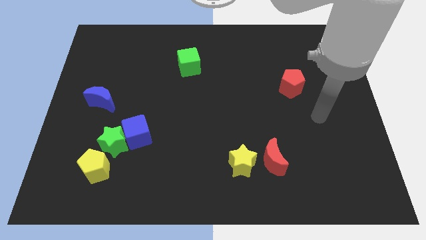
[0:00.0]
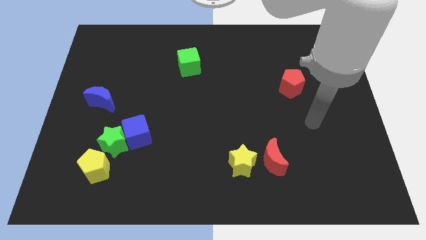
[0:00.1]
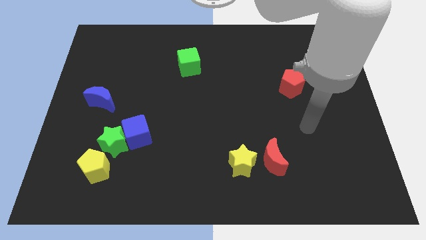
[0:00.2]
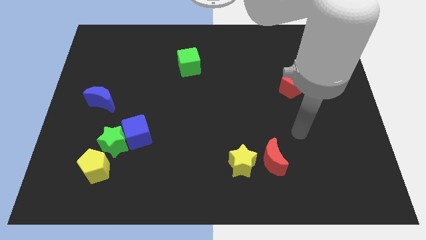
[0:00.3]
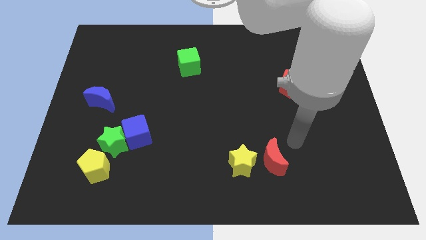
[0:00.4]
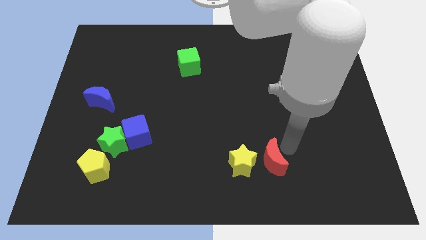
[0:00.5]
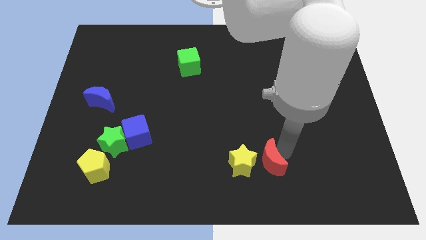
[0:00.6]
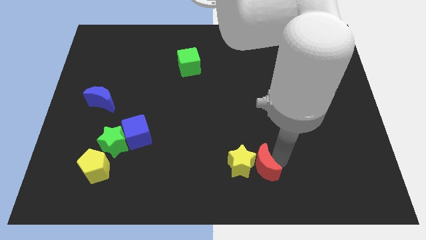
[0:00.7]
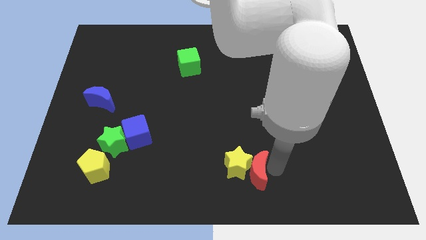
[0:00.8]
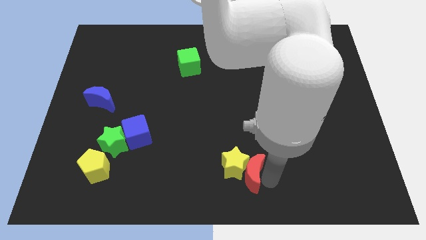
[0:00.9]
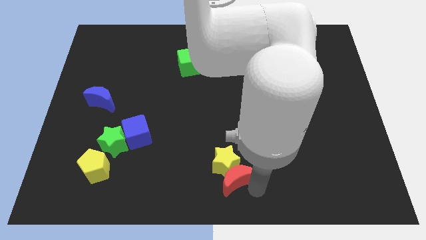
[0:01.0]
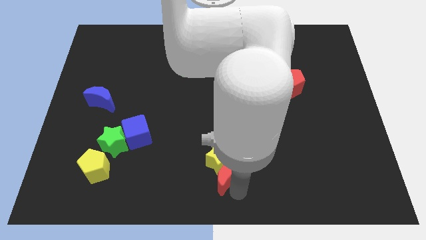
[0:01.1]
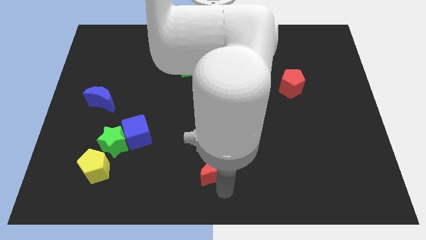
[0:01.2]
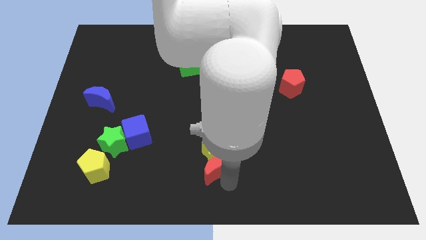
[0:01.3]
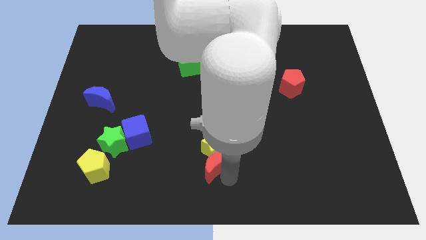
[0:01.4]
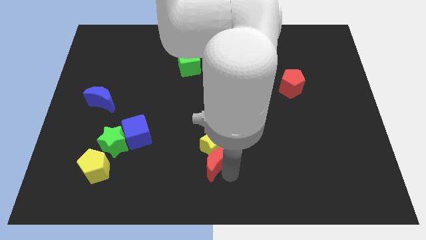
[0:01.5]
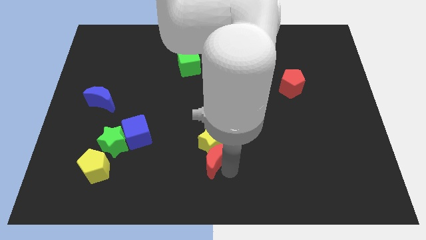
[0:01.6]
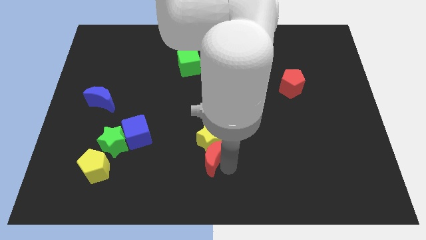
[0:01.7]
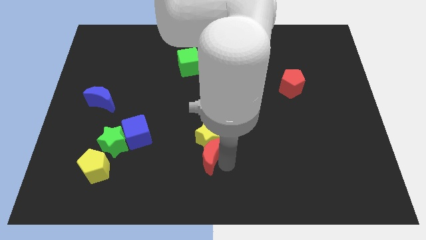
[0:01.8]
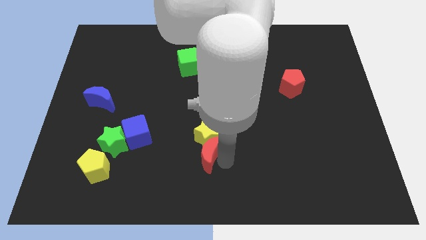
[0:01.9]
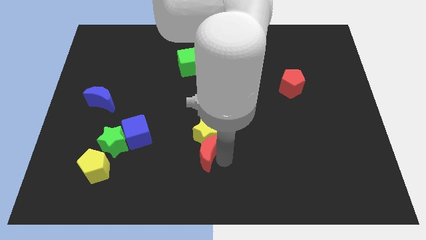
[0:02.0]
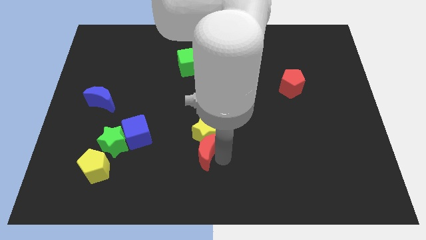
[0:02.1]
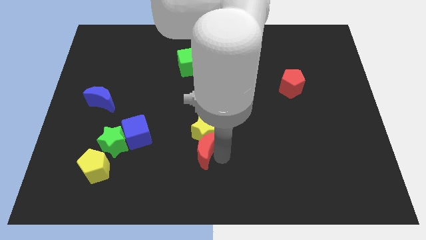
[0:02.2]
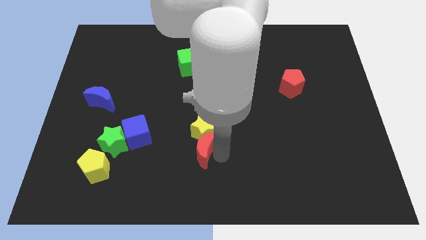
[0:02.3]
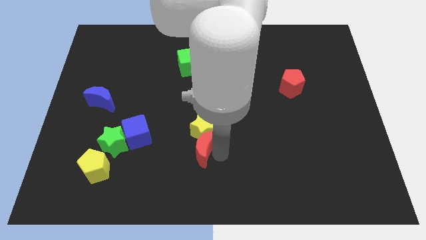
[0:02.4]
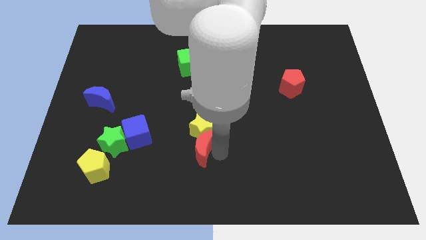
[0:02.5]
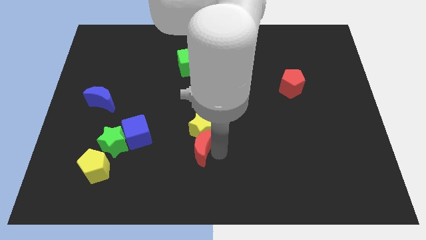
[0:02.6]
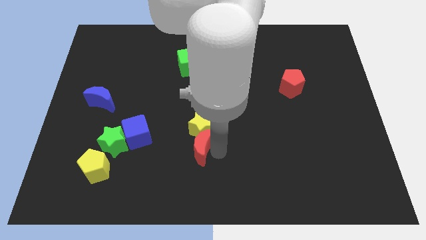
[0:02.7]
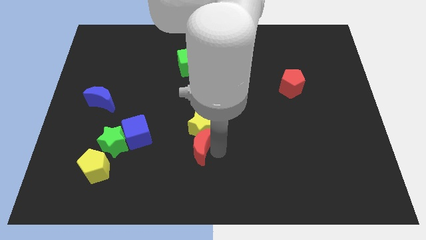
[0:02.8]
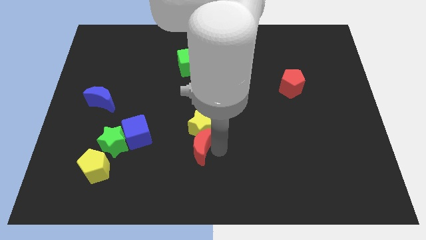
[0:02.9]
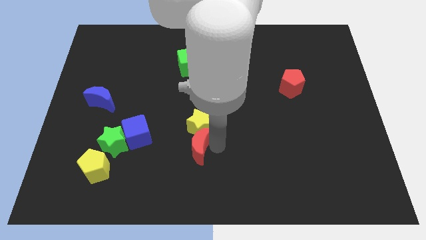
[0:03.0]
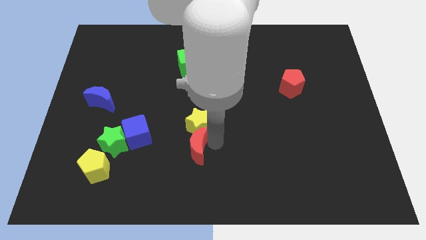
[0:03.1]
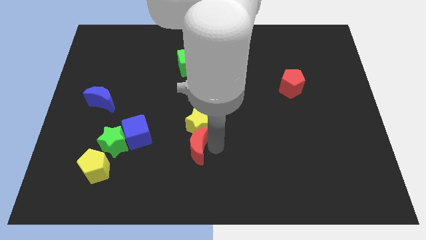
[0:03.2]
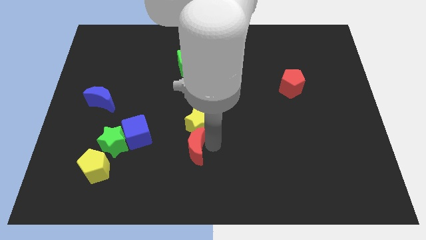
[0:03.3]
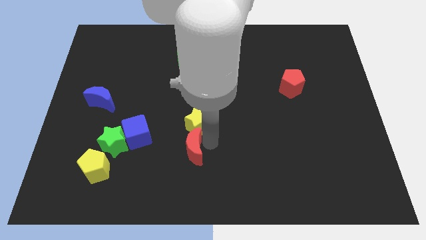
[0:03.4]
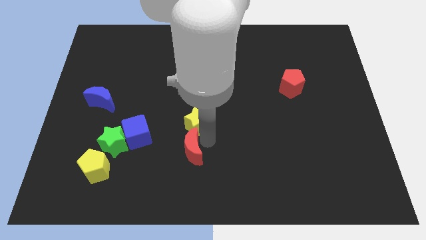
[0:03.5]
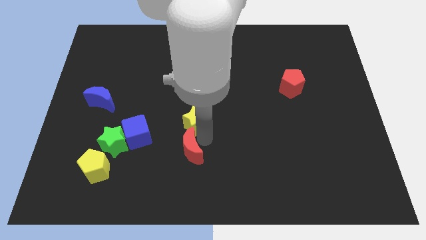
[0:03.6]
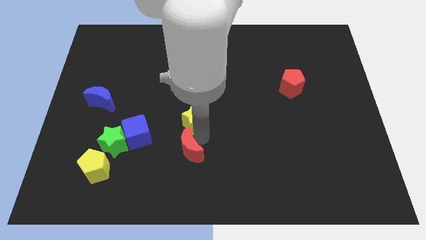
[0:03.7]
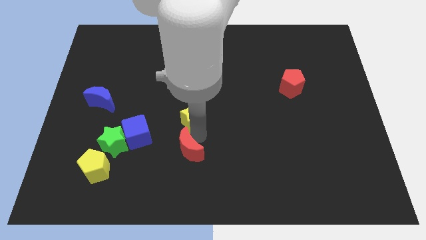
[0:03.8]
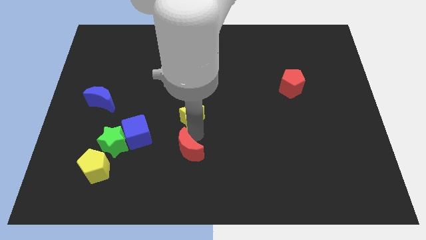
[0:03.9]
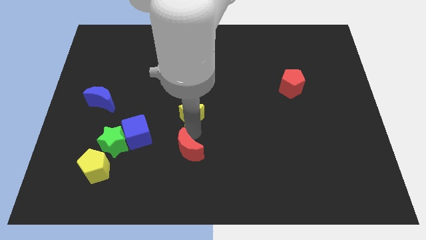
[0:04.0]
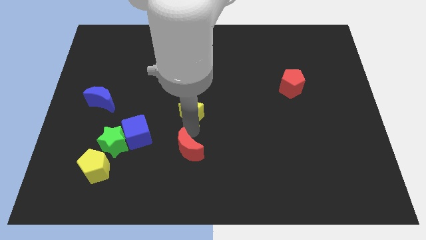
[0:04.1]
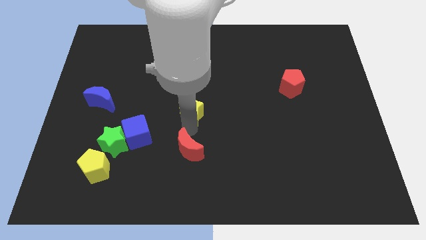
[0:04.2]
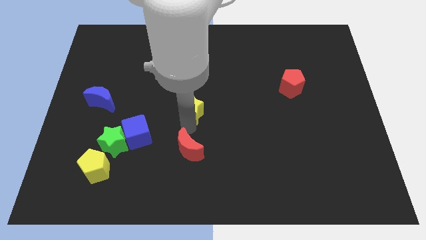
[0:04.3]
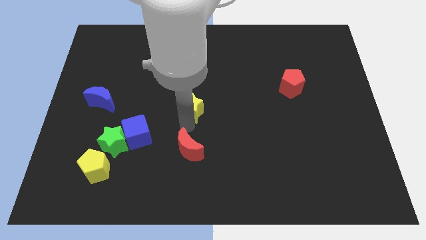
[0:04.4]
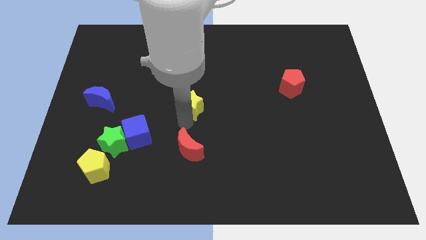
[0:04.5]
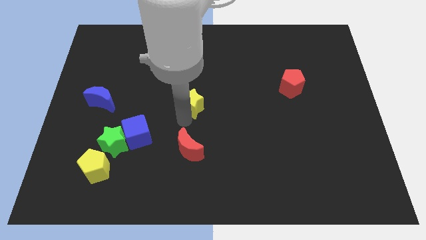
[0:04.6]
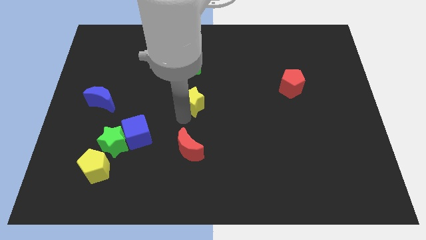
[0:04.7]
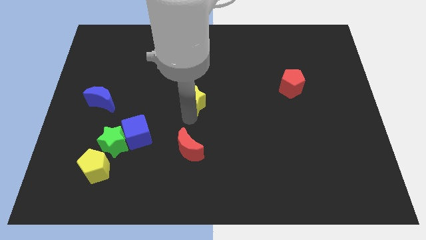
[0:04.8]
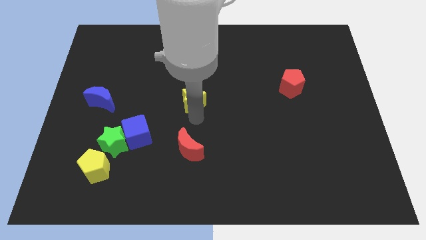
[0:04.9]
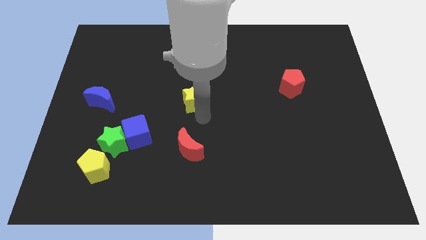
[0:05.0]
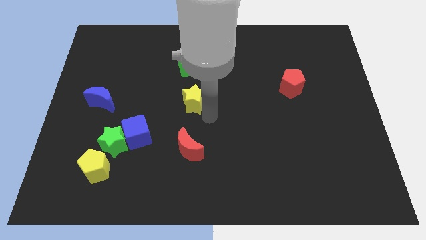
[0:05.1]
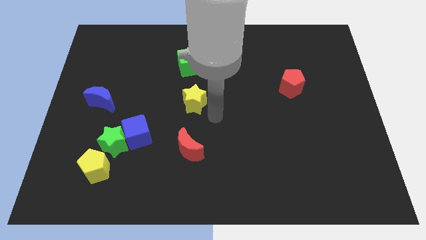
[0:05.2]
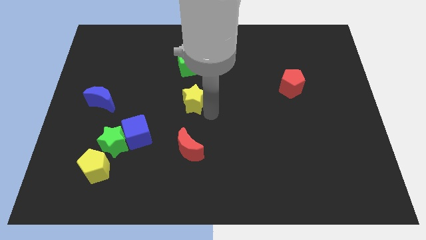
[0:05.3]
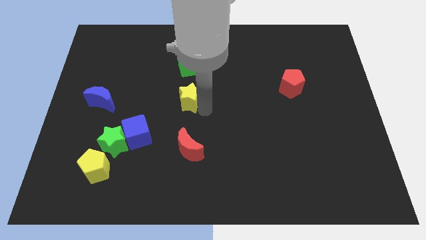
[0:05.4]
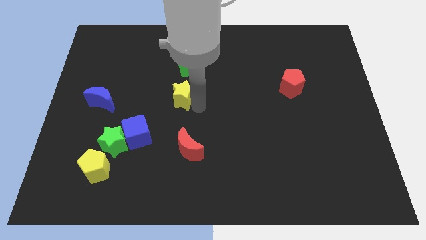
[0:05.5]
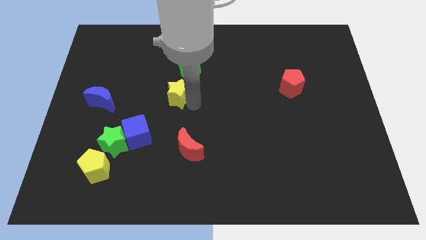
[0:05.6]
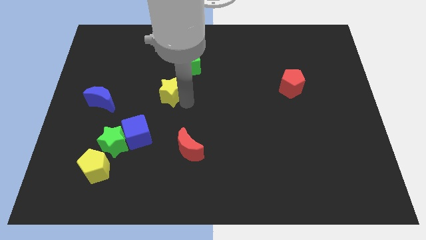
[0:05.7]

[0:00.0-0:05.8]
slide the yellow star to the bottom left of the green cube

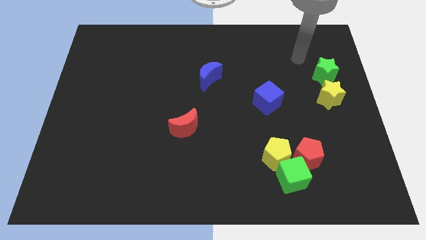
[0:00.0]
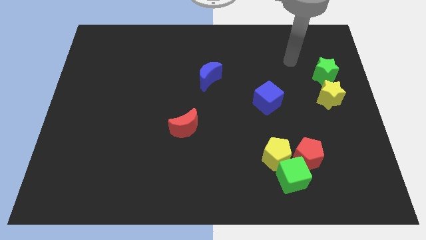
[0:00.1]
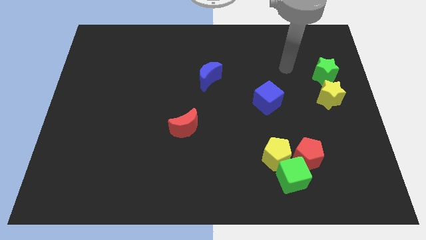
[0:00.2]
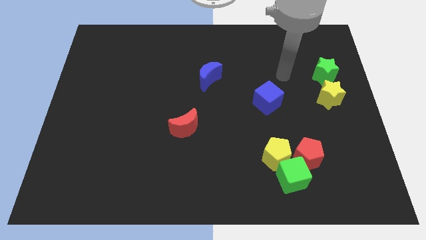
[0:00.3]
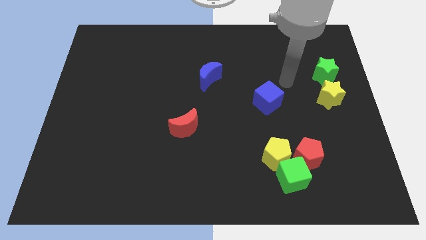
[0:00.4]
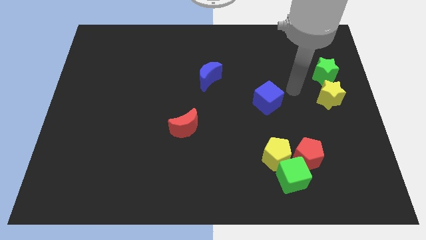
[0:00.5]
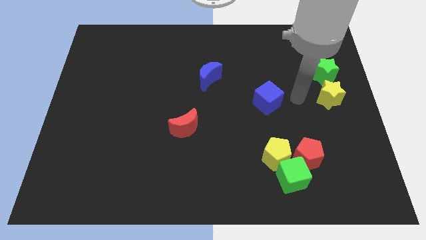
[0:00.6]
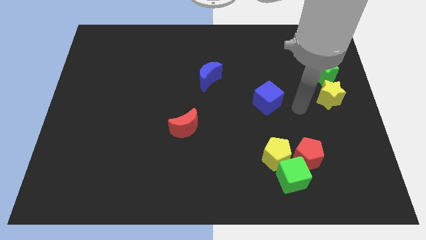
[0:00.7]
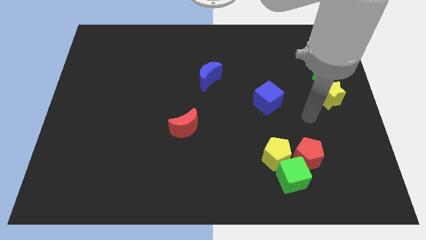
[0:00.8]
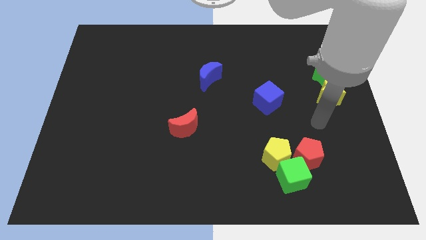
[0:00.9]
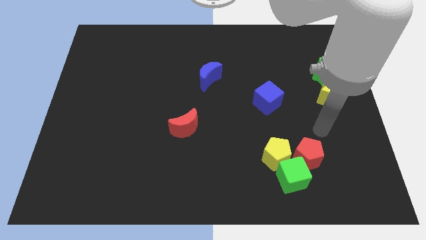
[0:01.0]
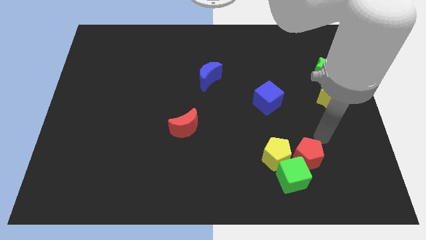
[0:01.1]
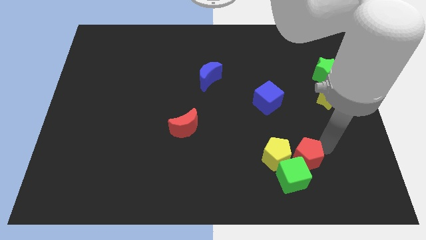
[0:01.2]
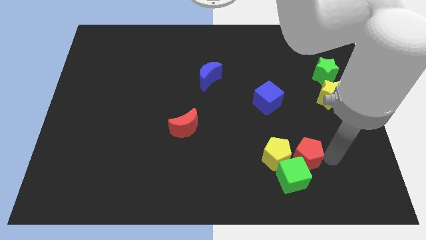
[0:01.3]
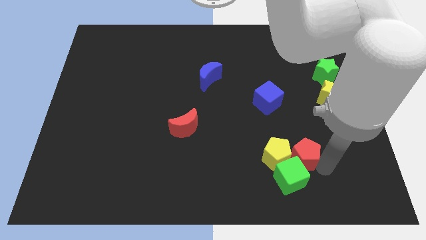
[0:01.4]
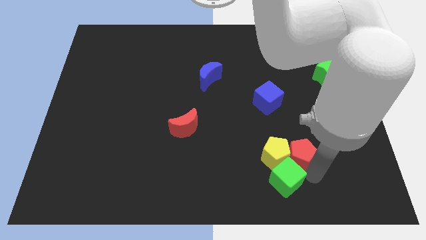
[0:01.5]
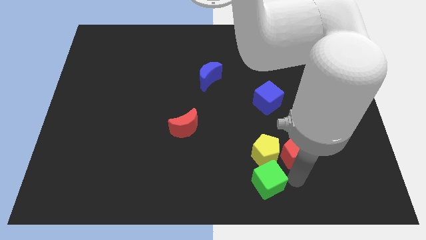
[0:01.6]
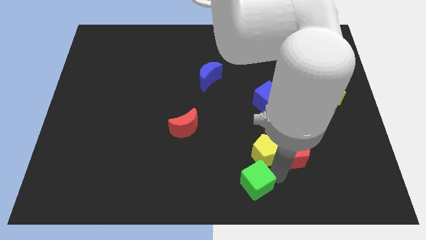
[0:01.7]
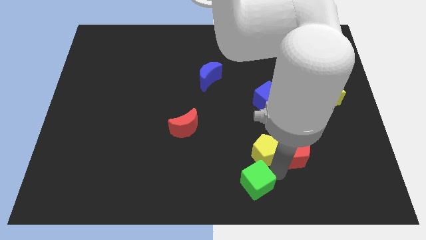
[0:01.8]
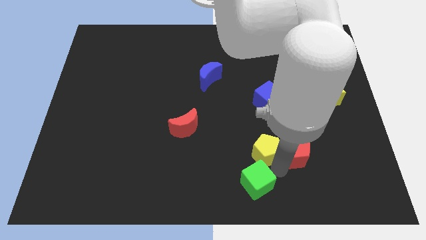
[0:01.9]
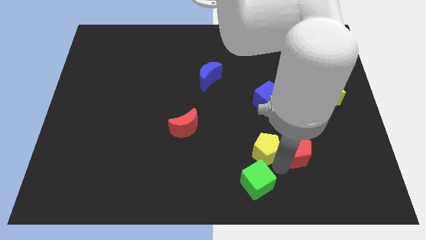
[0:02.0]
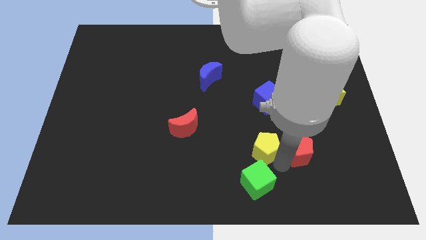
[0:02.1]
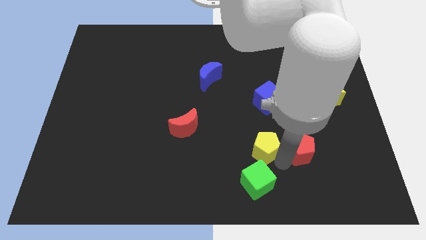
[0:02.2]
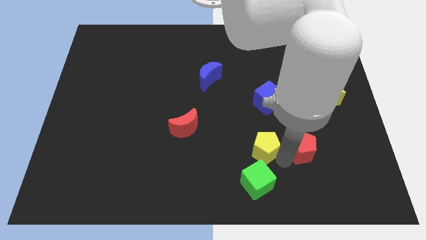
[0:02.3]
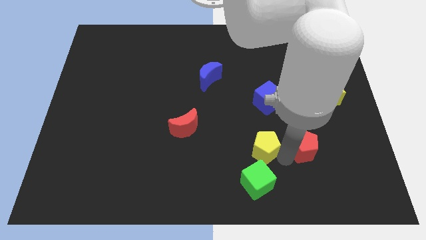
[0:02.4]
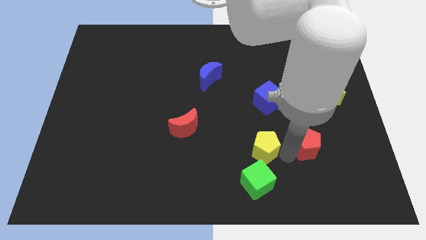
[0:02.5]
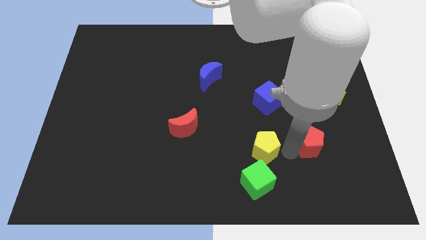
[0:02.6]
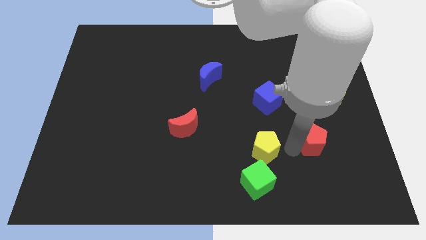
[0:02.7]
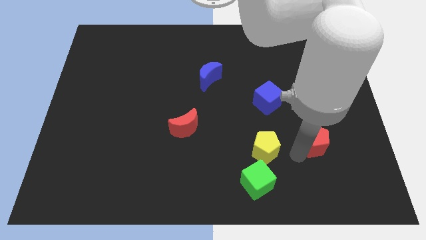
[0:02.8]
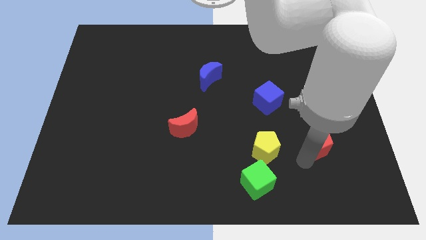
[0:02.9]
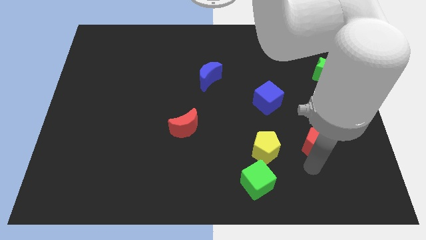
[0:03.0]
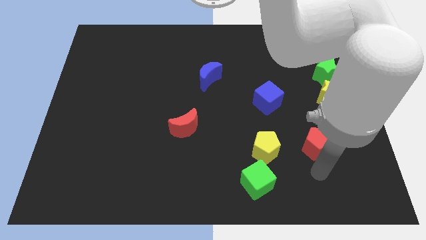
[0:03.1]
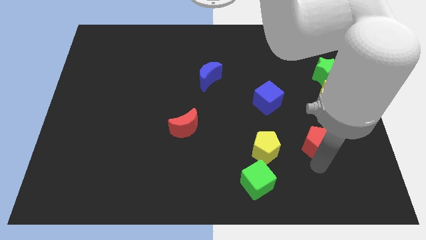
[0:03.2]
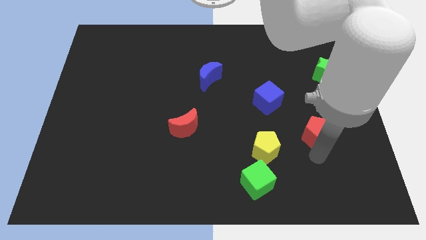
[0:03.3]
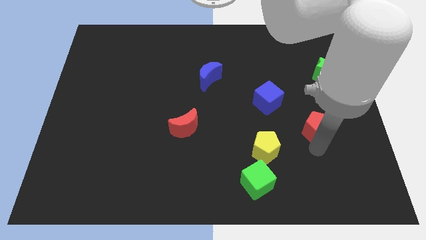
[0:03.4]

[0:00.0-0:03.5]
slide the red pentagon to the bottom left side of the yellow star
